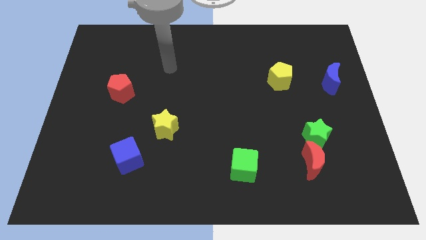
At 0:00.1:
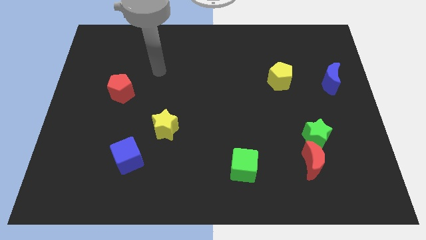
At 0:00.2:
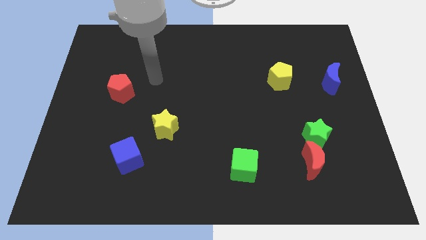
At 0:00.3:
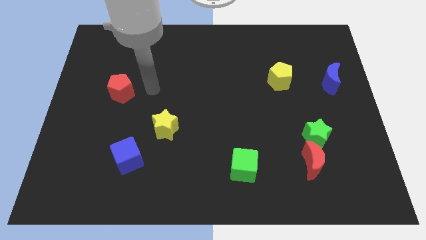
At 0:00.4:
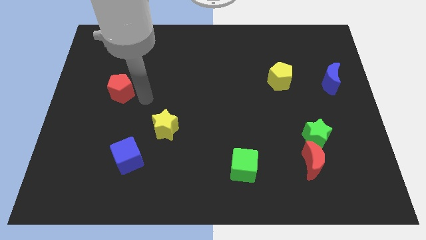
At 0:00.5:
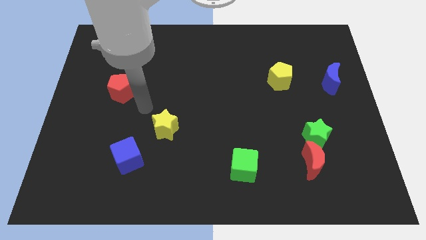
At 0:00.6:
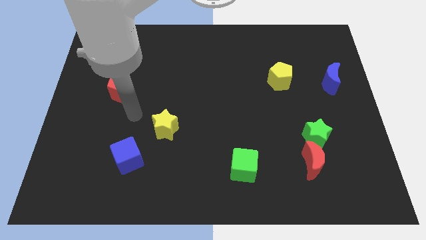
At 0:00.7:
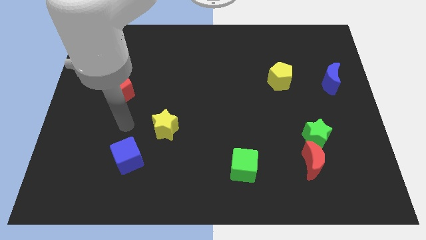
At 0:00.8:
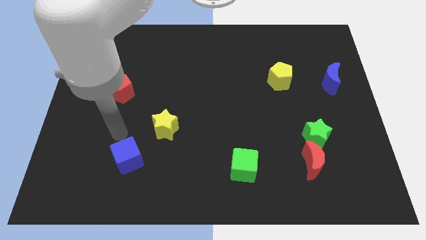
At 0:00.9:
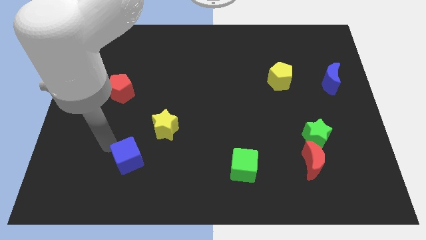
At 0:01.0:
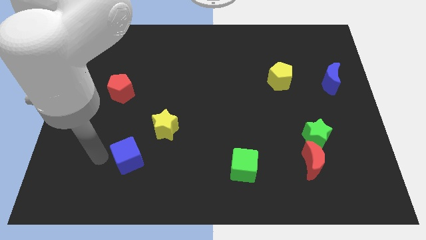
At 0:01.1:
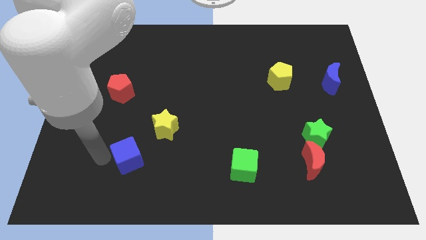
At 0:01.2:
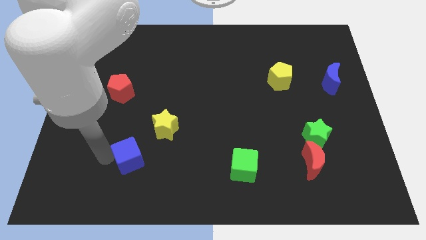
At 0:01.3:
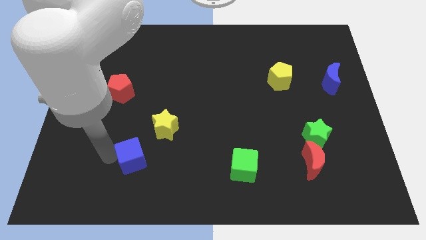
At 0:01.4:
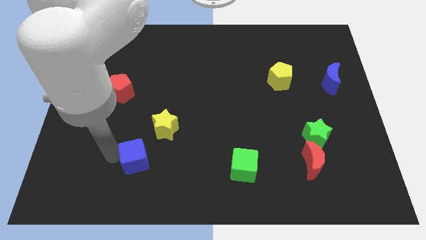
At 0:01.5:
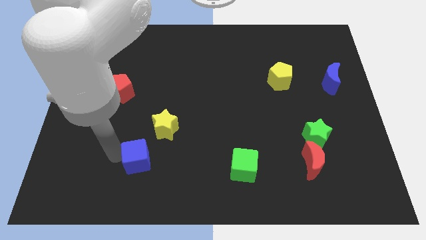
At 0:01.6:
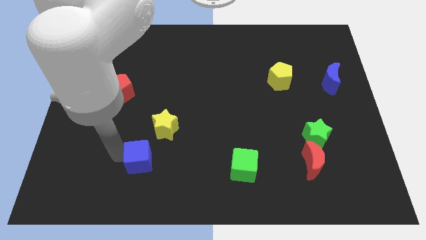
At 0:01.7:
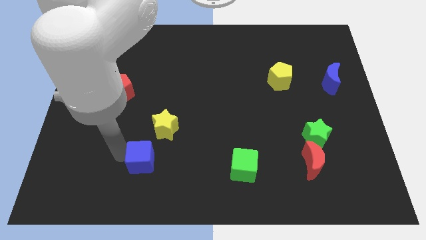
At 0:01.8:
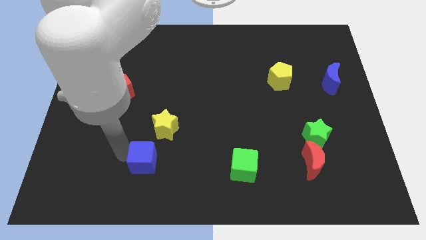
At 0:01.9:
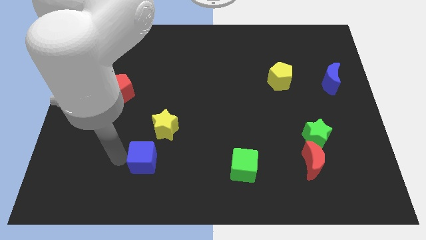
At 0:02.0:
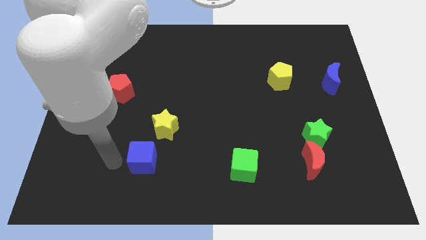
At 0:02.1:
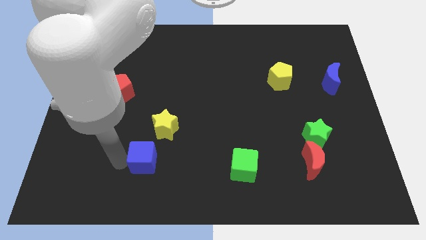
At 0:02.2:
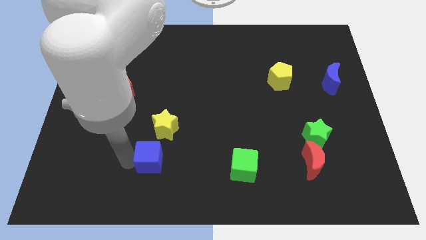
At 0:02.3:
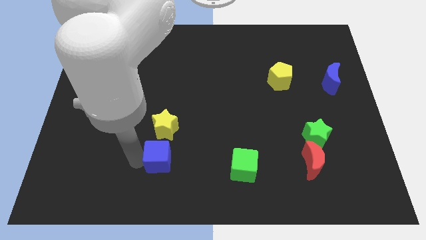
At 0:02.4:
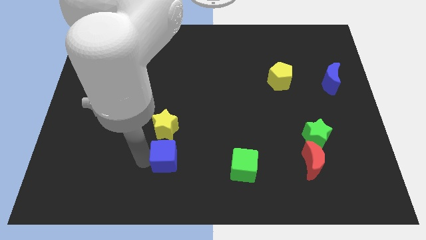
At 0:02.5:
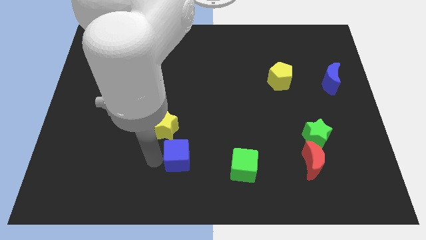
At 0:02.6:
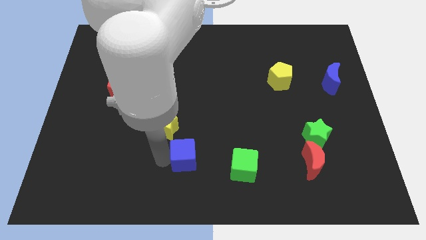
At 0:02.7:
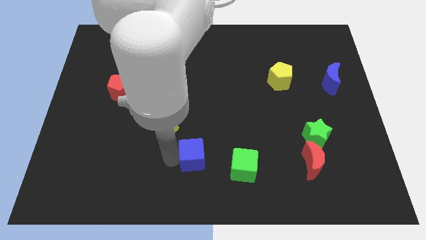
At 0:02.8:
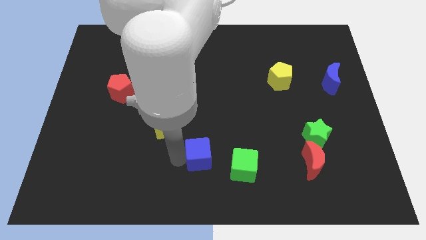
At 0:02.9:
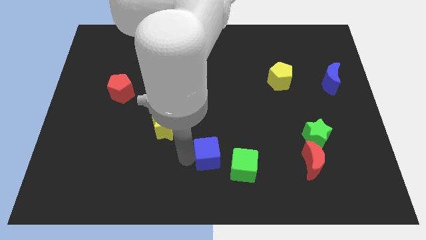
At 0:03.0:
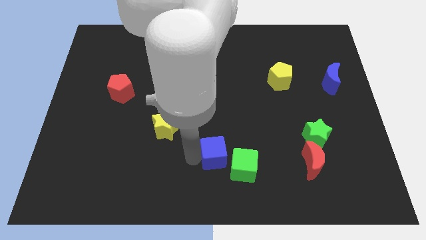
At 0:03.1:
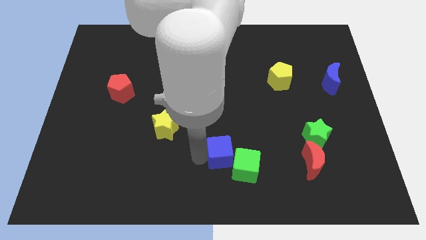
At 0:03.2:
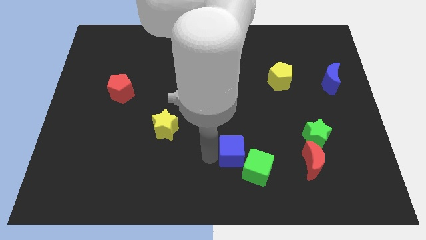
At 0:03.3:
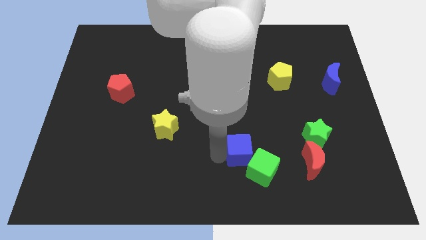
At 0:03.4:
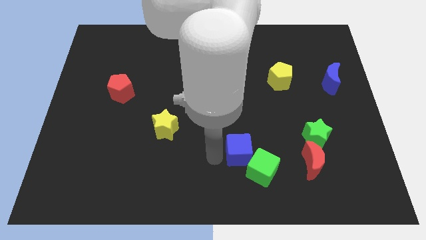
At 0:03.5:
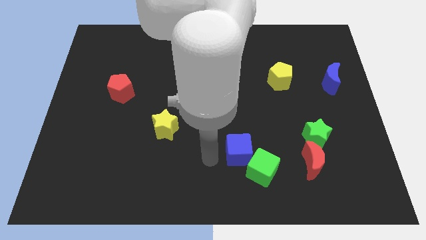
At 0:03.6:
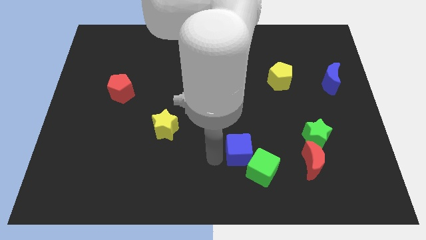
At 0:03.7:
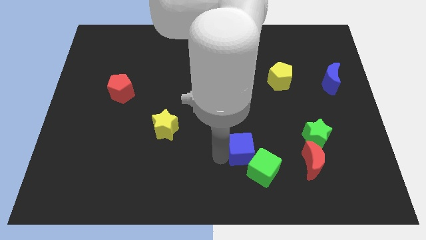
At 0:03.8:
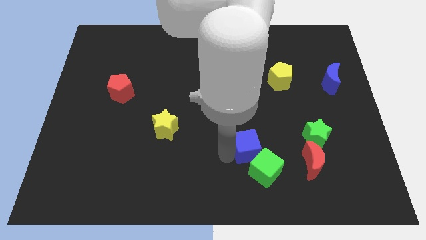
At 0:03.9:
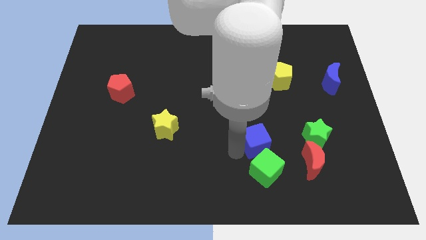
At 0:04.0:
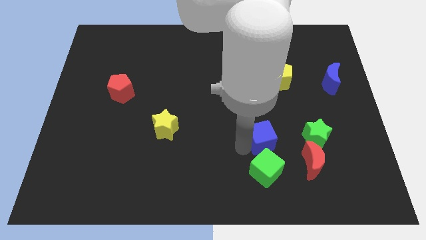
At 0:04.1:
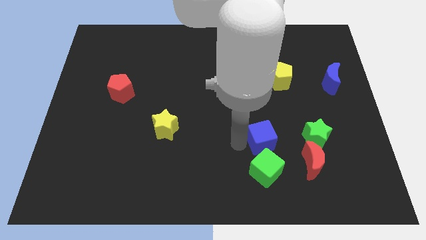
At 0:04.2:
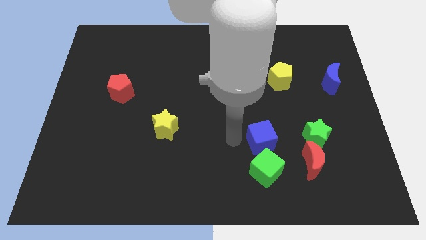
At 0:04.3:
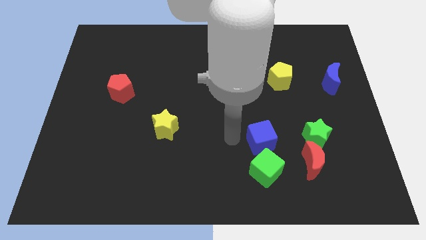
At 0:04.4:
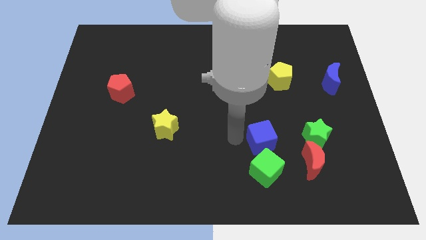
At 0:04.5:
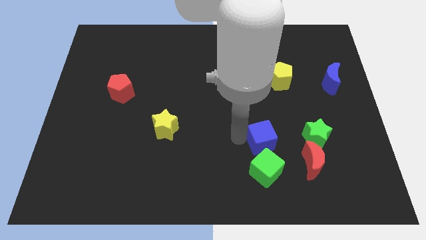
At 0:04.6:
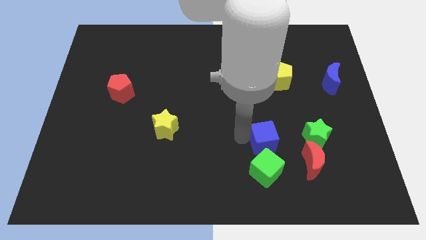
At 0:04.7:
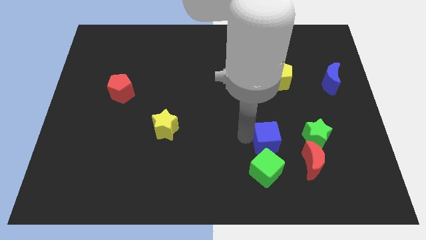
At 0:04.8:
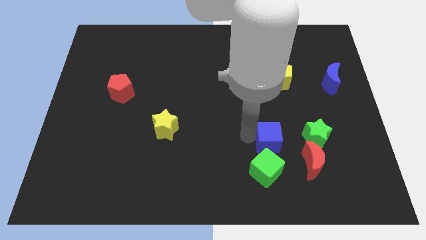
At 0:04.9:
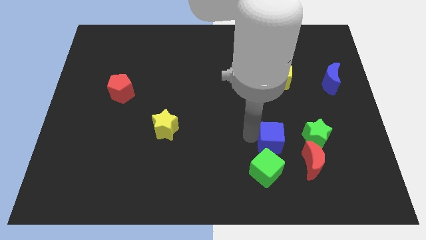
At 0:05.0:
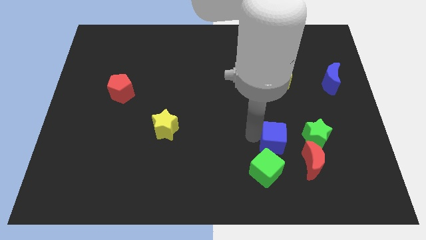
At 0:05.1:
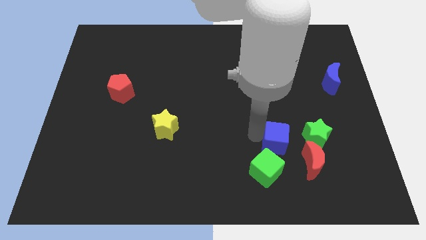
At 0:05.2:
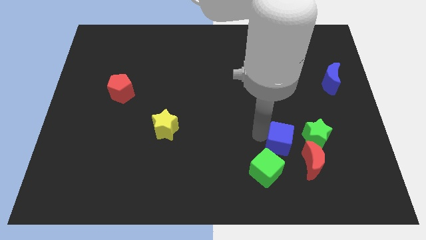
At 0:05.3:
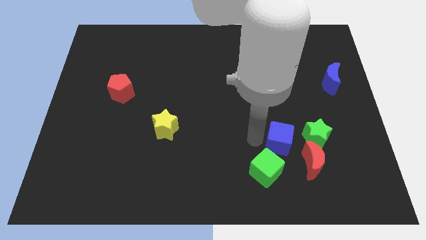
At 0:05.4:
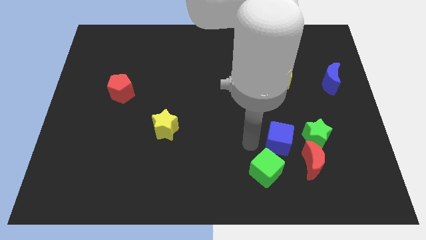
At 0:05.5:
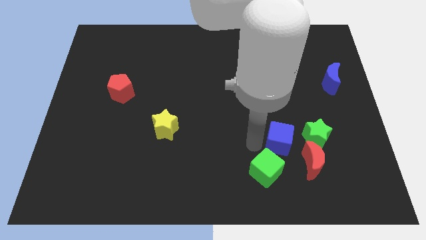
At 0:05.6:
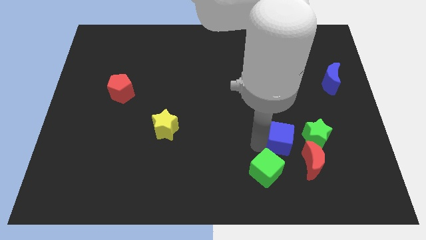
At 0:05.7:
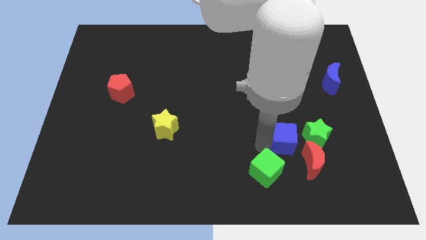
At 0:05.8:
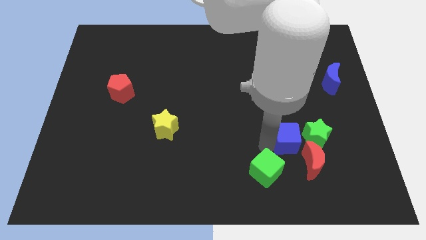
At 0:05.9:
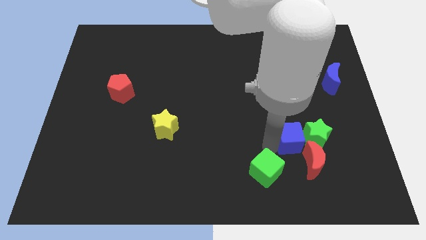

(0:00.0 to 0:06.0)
move the blue cube to the green star

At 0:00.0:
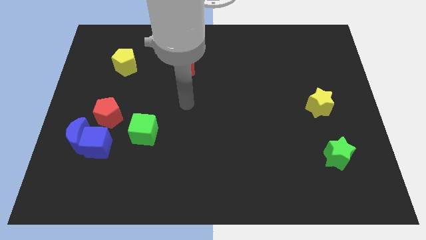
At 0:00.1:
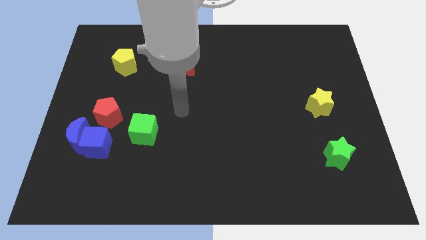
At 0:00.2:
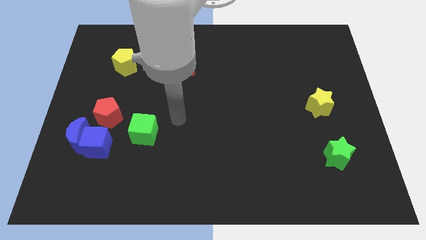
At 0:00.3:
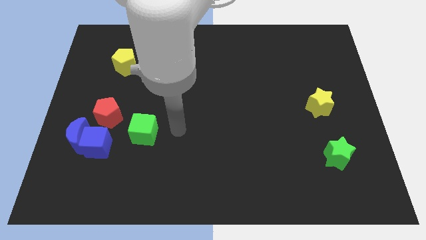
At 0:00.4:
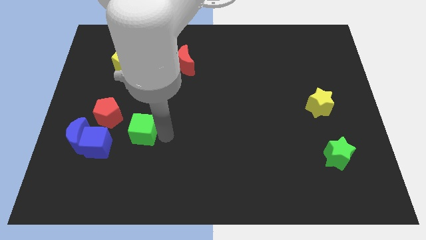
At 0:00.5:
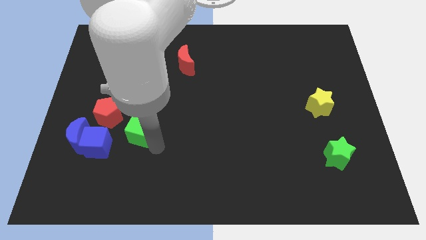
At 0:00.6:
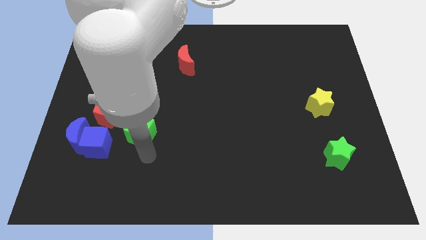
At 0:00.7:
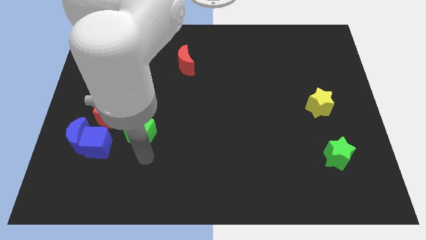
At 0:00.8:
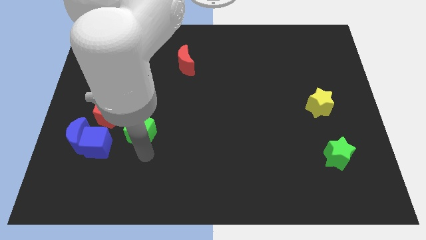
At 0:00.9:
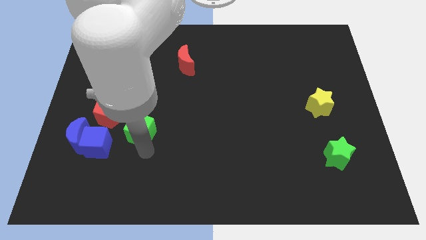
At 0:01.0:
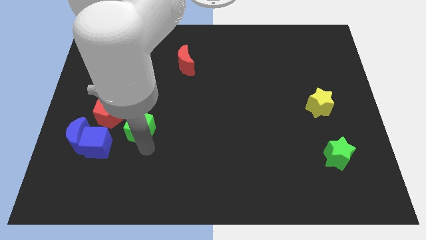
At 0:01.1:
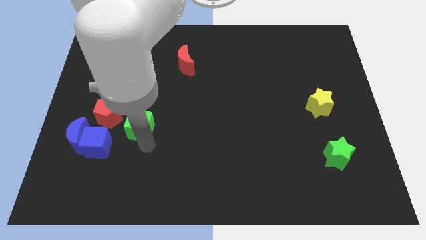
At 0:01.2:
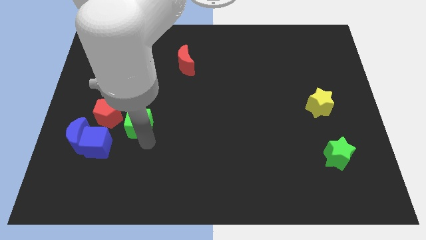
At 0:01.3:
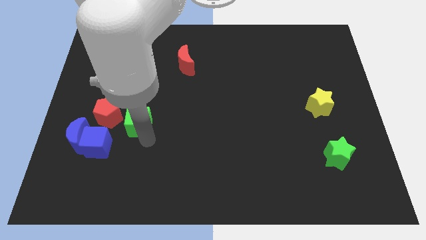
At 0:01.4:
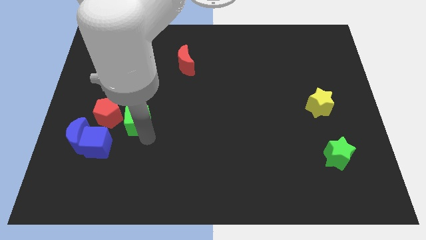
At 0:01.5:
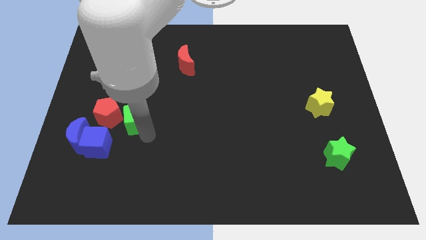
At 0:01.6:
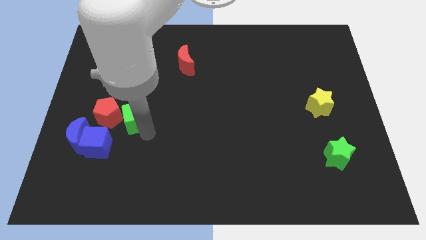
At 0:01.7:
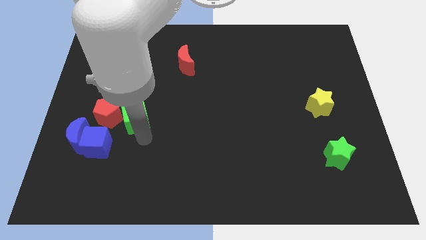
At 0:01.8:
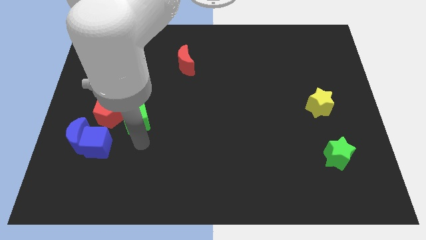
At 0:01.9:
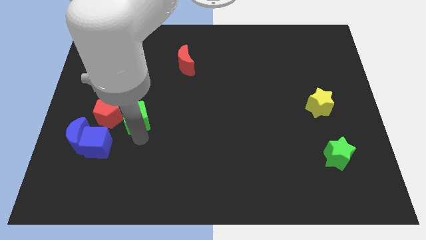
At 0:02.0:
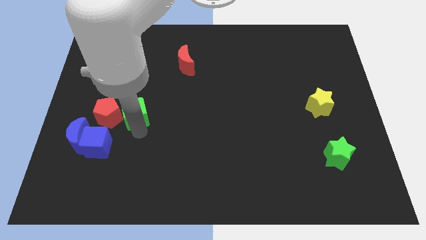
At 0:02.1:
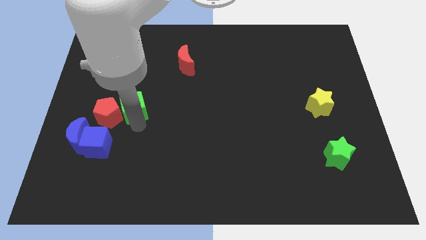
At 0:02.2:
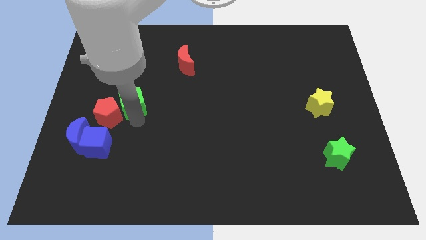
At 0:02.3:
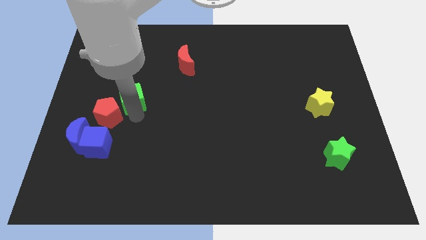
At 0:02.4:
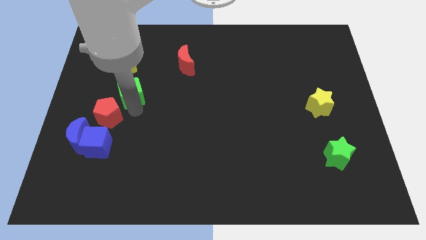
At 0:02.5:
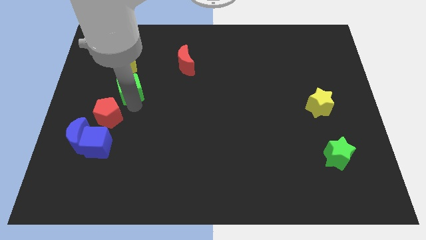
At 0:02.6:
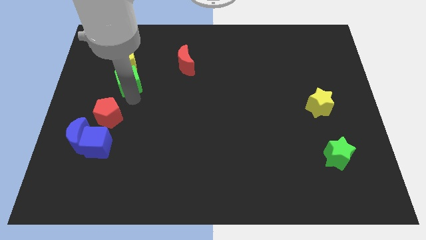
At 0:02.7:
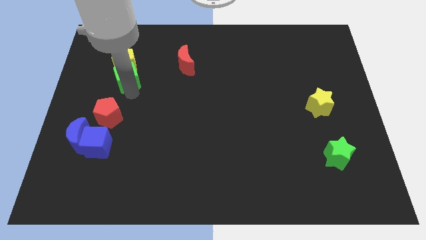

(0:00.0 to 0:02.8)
put the green cube towards the yellow pentagon
